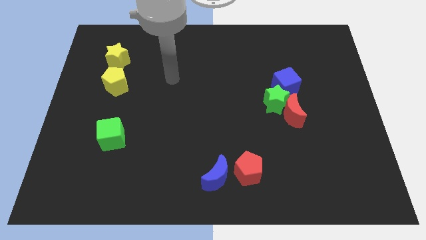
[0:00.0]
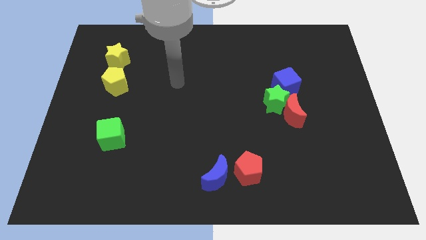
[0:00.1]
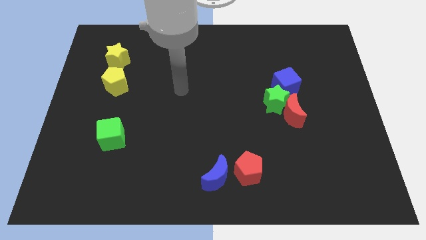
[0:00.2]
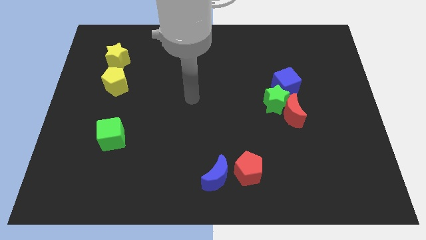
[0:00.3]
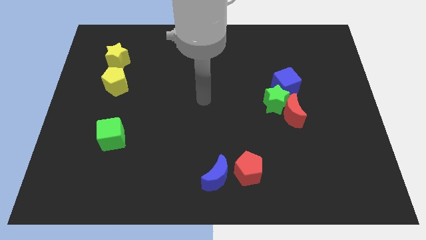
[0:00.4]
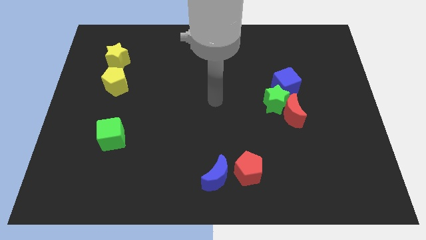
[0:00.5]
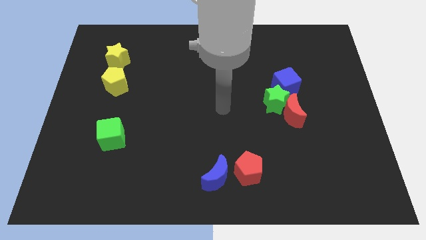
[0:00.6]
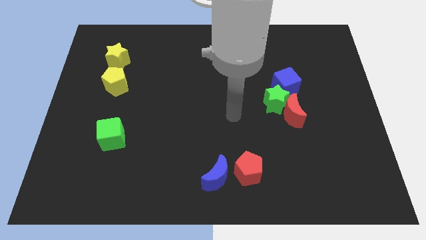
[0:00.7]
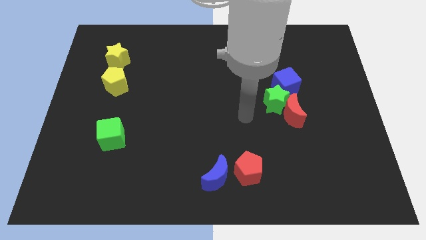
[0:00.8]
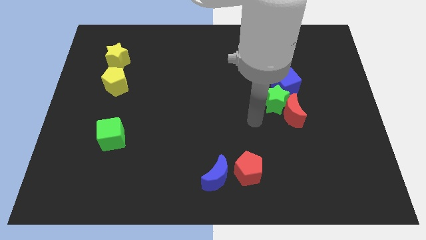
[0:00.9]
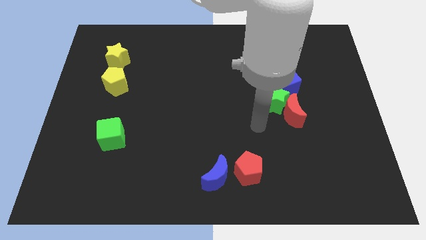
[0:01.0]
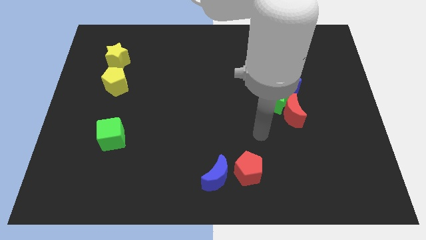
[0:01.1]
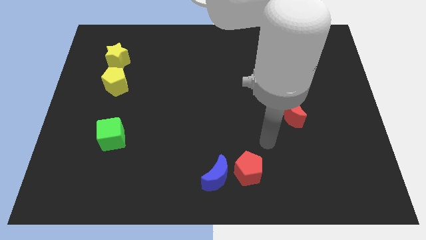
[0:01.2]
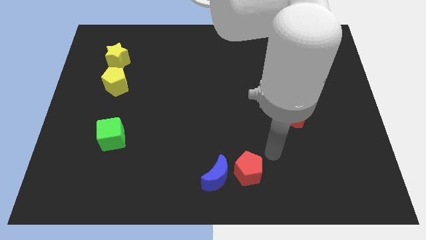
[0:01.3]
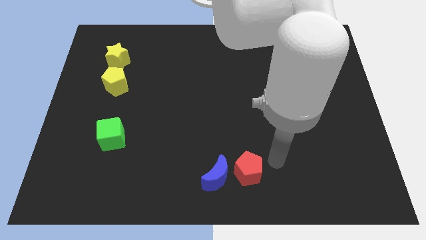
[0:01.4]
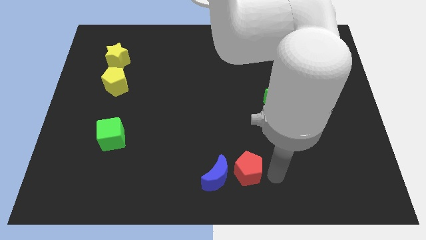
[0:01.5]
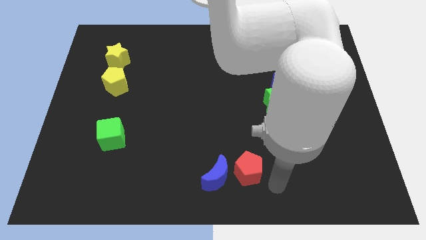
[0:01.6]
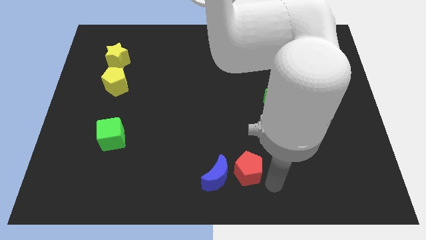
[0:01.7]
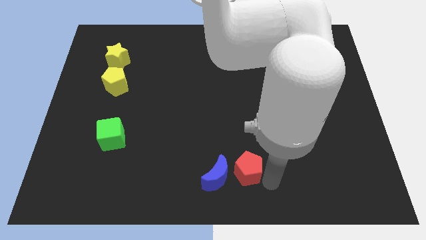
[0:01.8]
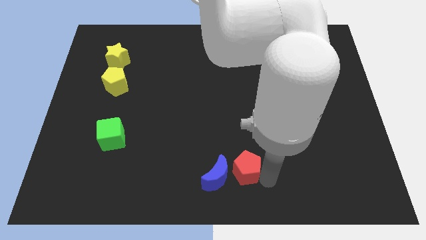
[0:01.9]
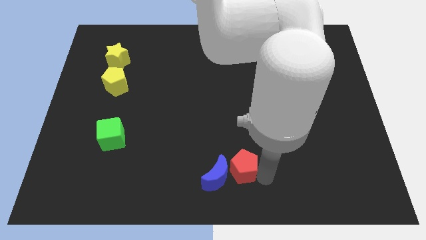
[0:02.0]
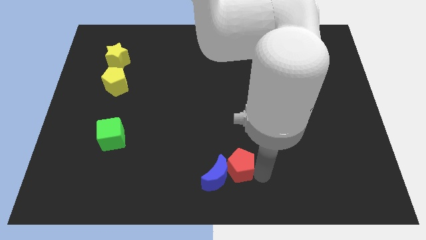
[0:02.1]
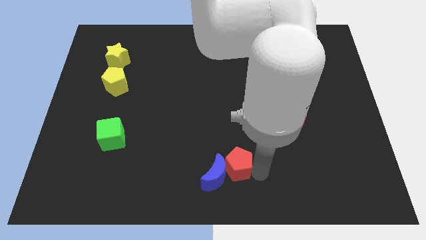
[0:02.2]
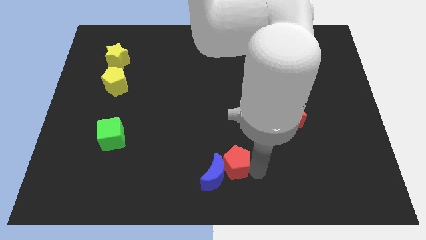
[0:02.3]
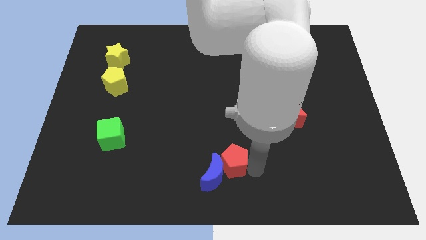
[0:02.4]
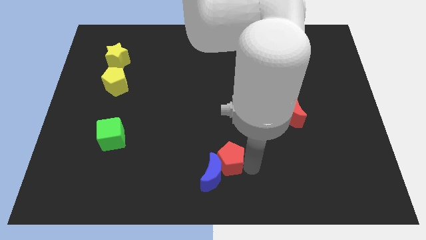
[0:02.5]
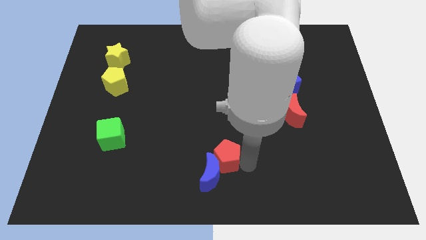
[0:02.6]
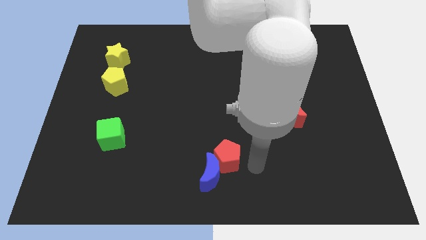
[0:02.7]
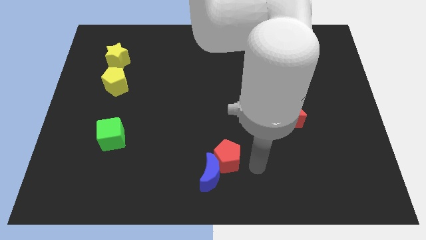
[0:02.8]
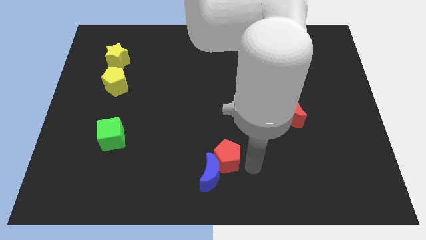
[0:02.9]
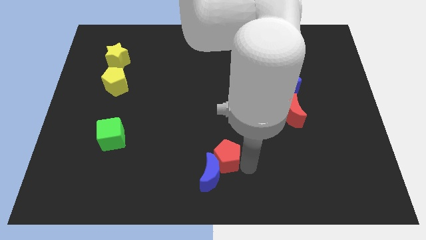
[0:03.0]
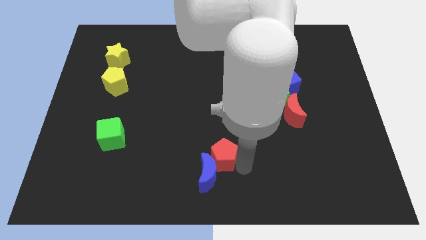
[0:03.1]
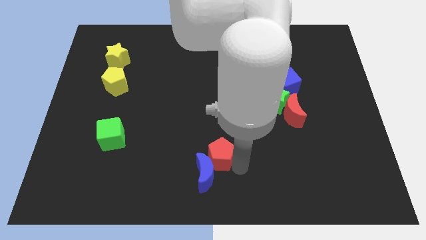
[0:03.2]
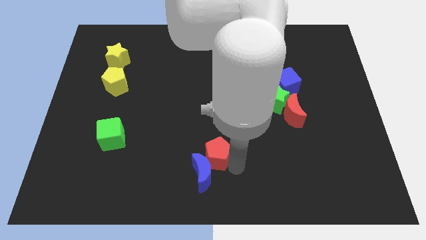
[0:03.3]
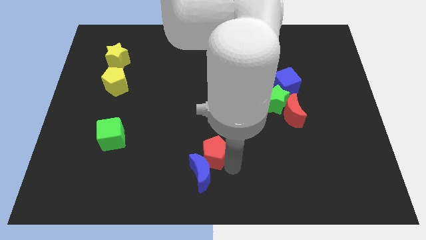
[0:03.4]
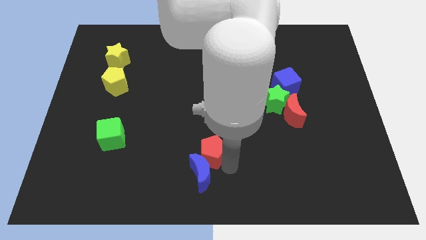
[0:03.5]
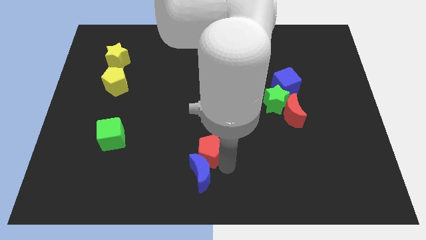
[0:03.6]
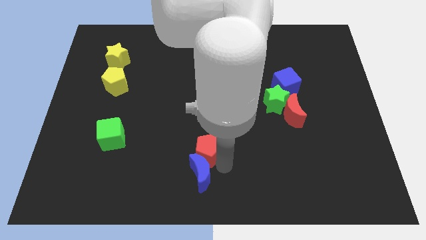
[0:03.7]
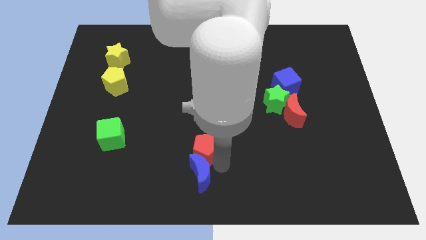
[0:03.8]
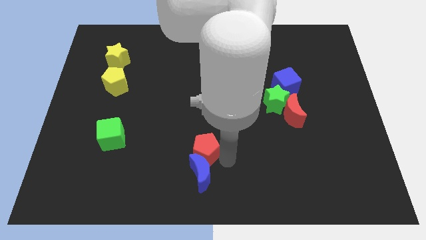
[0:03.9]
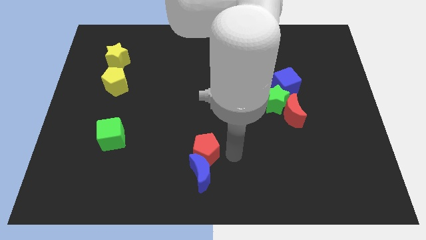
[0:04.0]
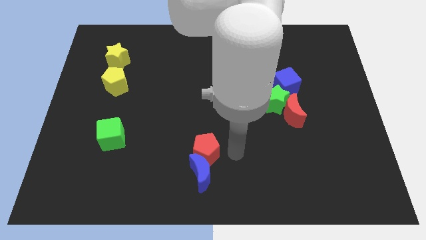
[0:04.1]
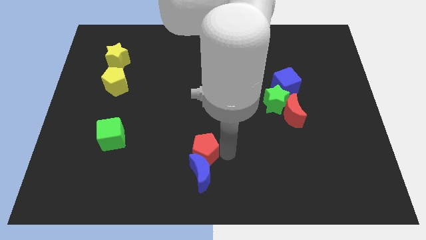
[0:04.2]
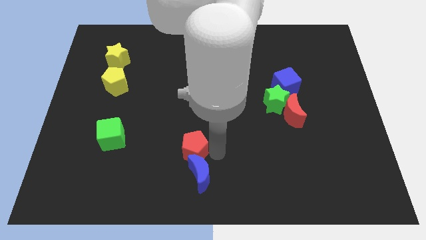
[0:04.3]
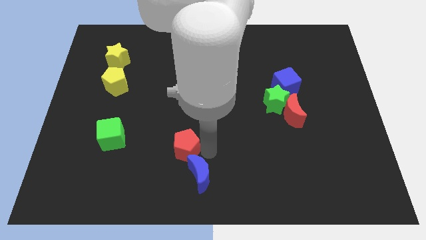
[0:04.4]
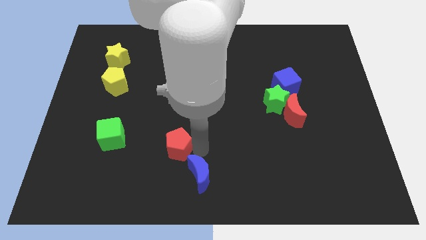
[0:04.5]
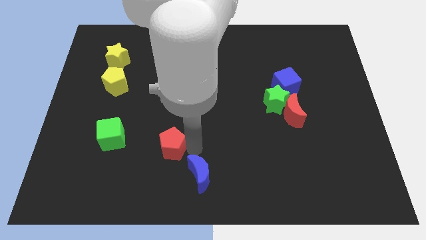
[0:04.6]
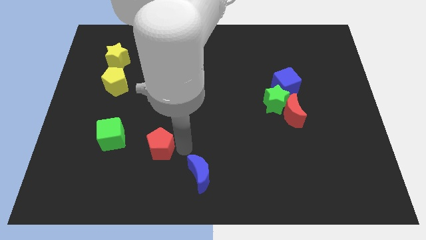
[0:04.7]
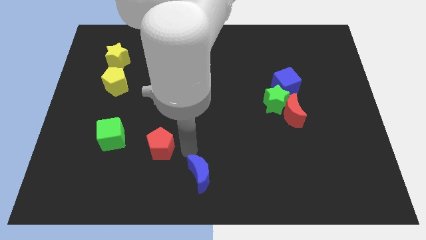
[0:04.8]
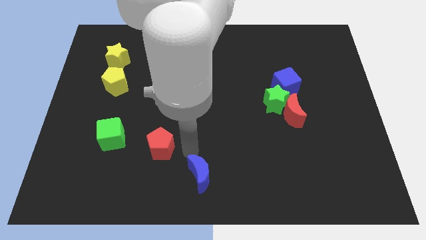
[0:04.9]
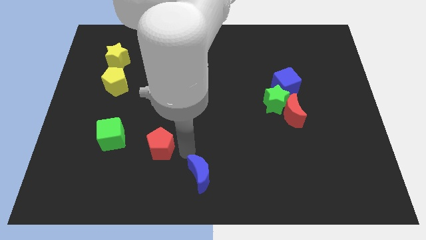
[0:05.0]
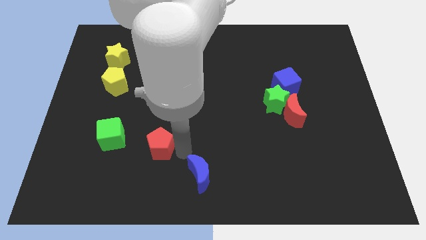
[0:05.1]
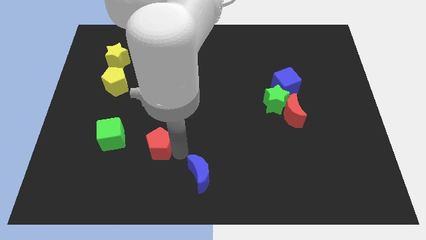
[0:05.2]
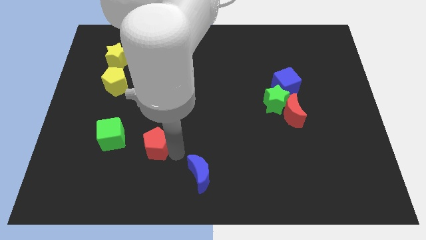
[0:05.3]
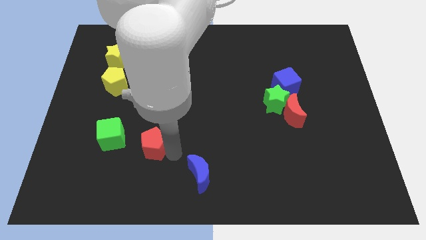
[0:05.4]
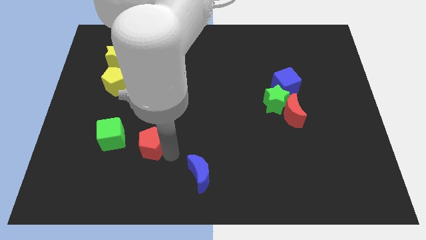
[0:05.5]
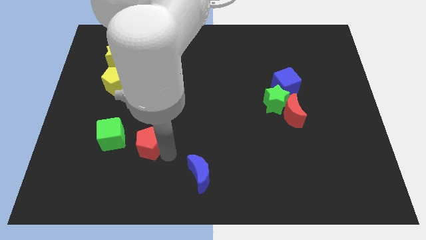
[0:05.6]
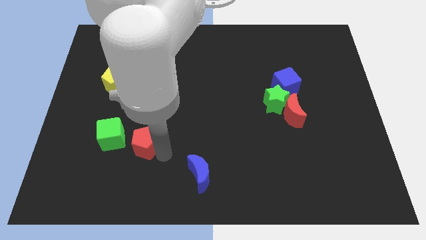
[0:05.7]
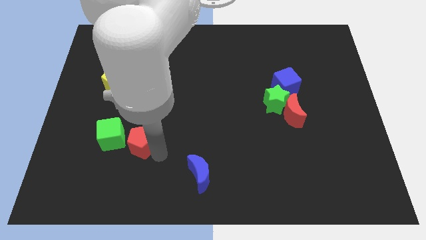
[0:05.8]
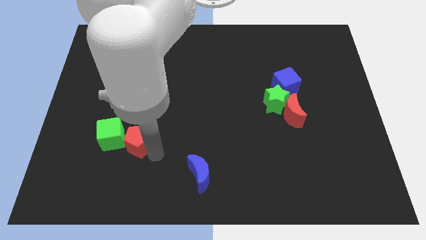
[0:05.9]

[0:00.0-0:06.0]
push the red pentagon towards the green cube

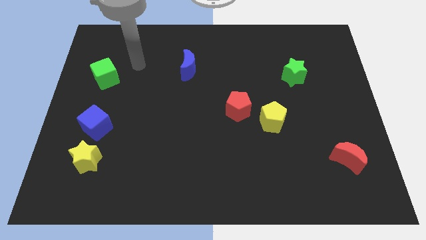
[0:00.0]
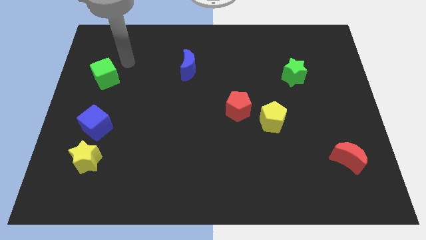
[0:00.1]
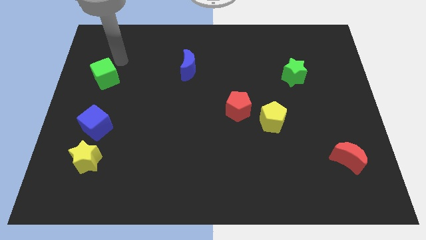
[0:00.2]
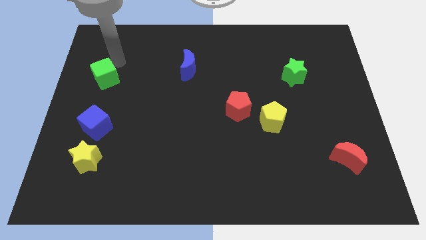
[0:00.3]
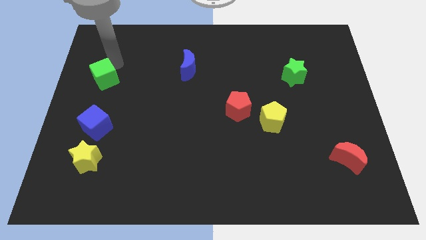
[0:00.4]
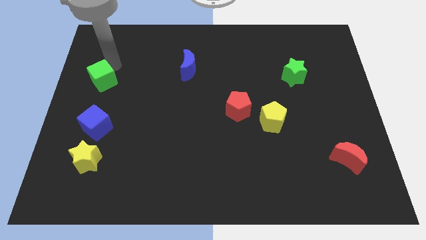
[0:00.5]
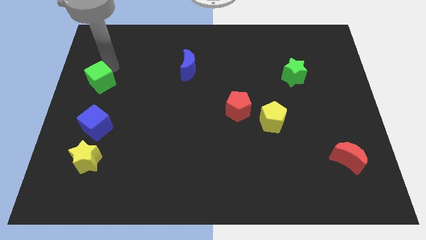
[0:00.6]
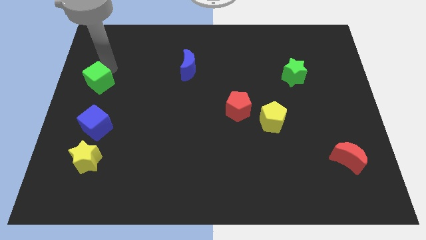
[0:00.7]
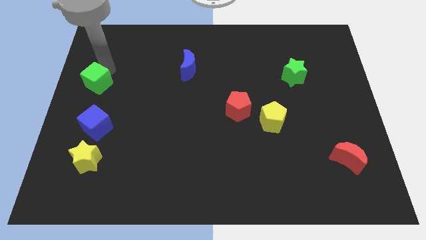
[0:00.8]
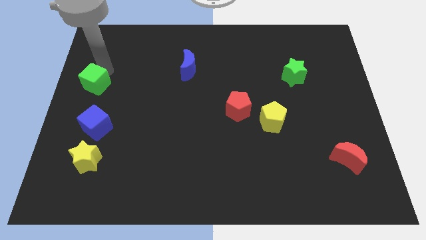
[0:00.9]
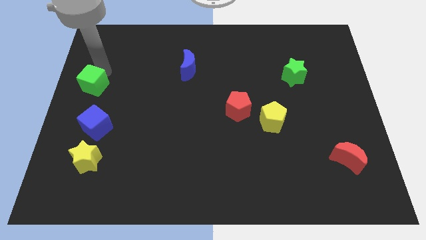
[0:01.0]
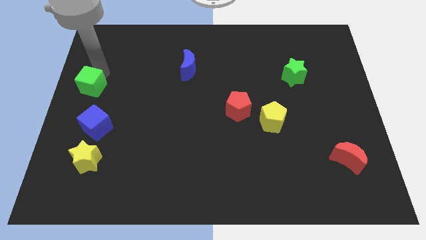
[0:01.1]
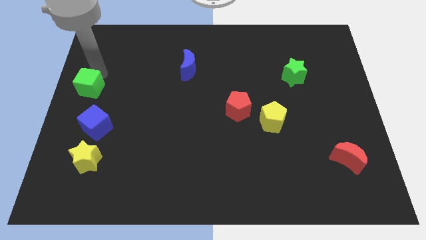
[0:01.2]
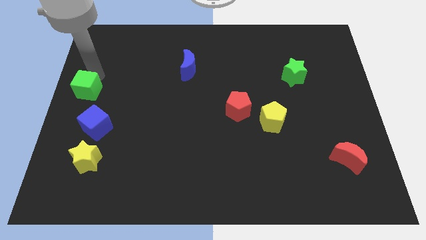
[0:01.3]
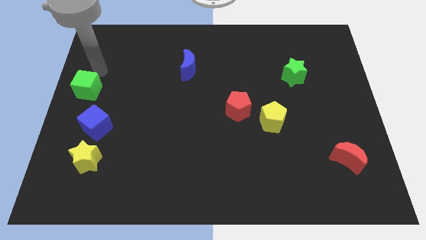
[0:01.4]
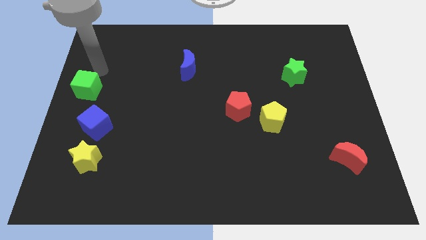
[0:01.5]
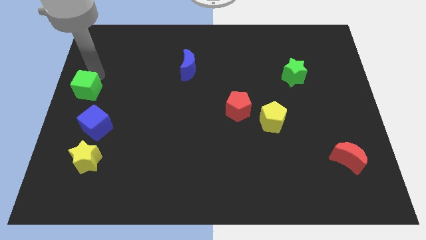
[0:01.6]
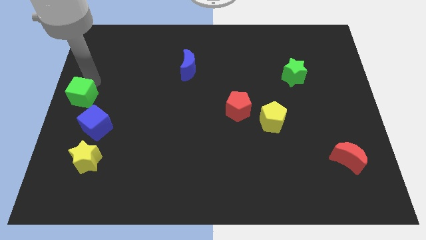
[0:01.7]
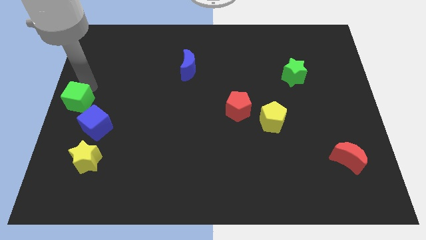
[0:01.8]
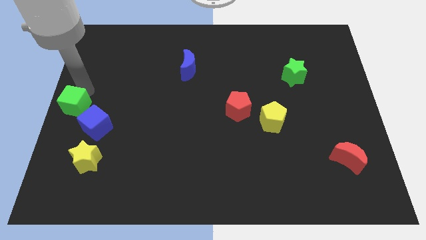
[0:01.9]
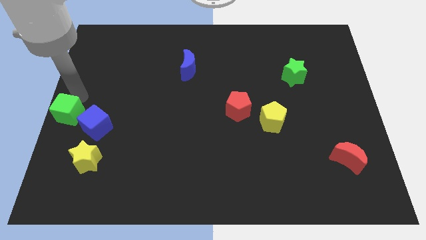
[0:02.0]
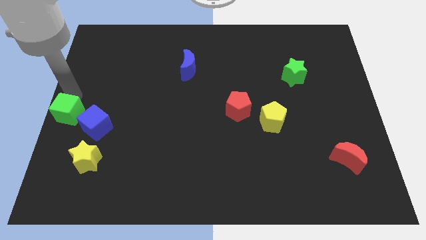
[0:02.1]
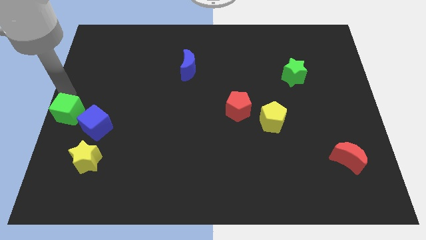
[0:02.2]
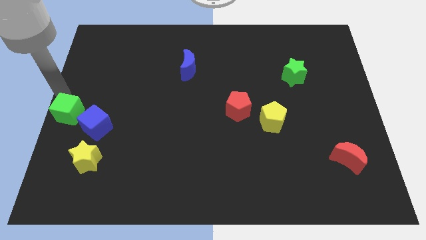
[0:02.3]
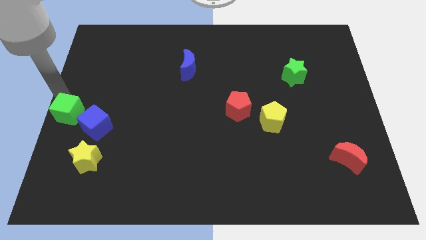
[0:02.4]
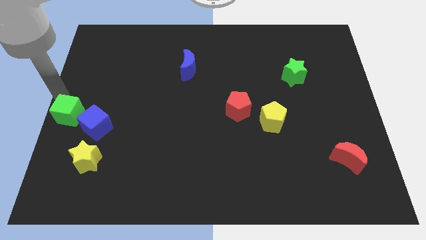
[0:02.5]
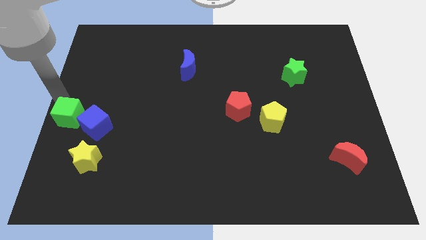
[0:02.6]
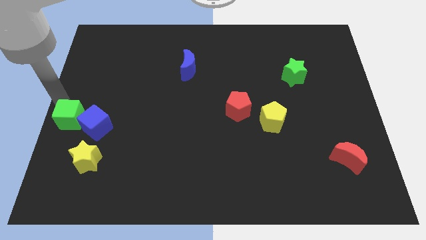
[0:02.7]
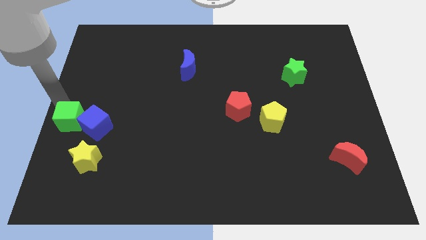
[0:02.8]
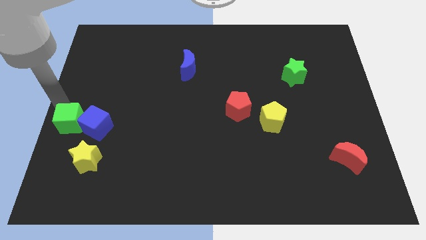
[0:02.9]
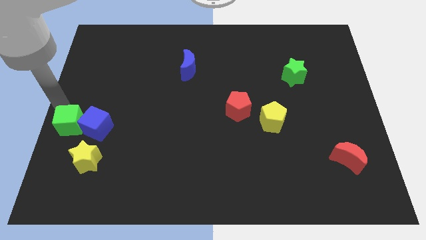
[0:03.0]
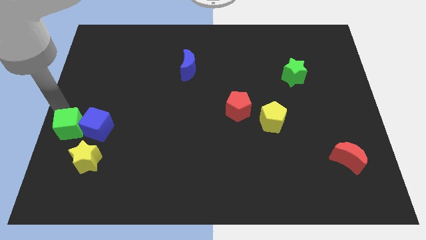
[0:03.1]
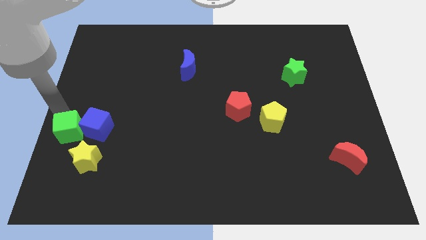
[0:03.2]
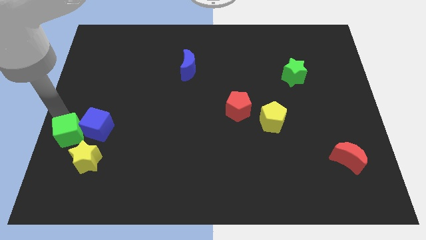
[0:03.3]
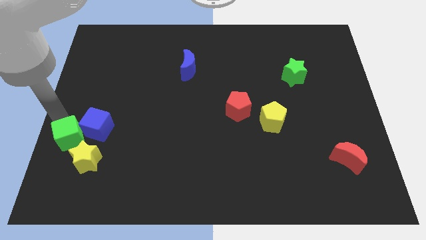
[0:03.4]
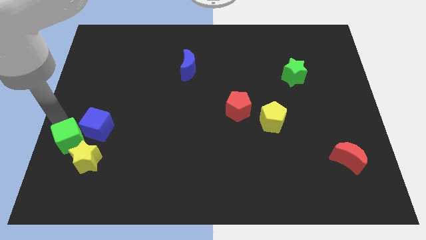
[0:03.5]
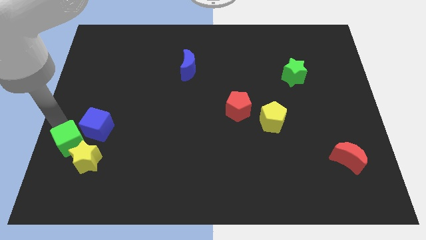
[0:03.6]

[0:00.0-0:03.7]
move the green cube close to the yellow star
